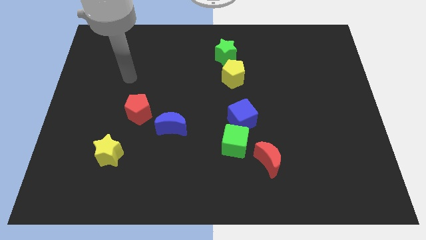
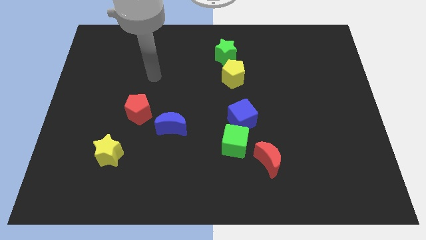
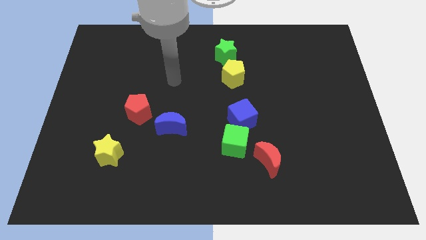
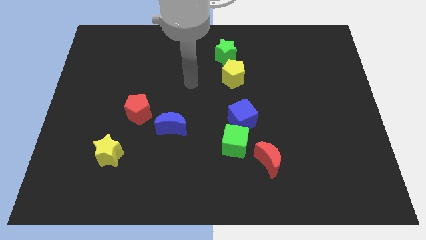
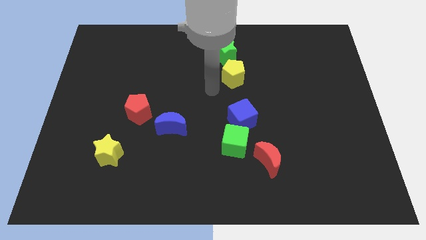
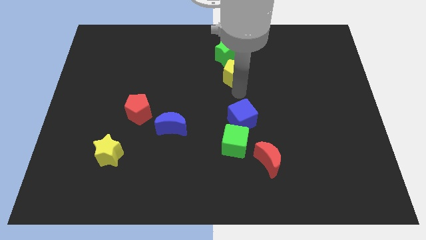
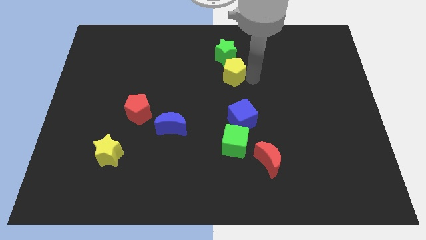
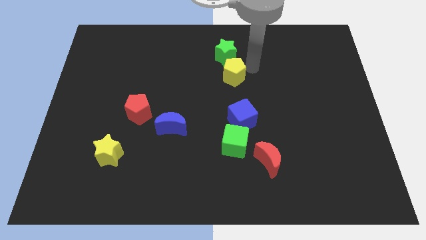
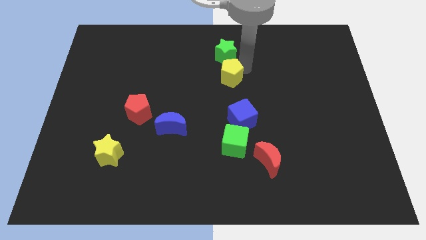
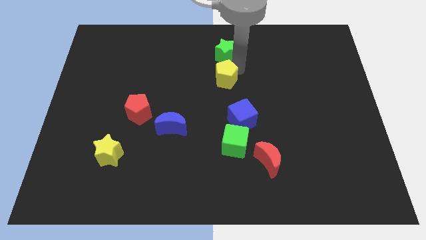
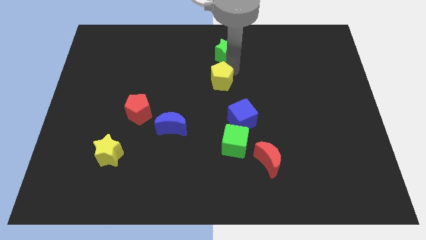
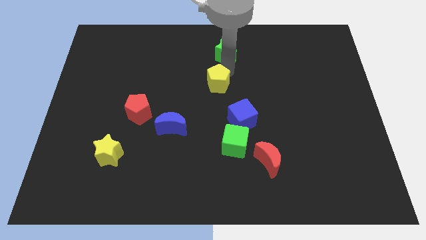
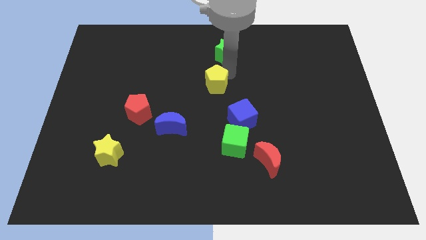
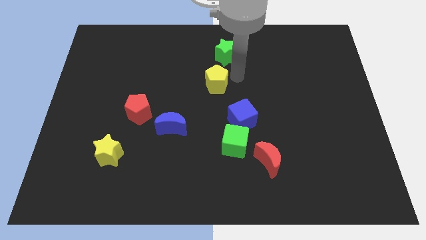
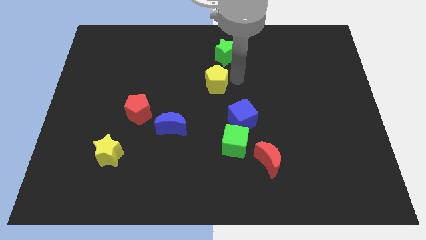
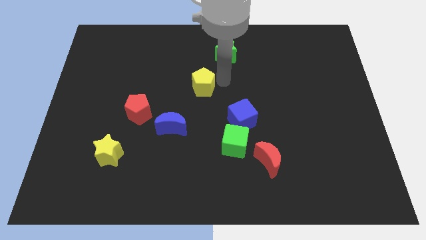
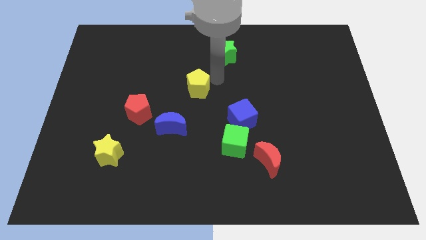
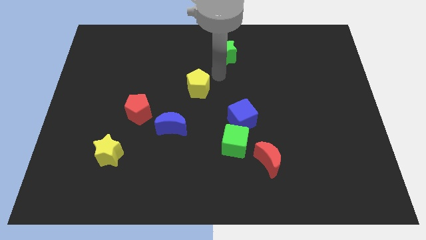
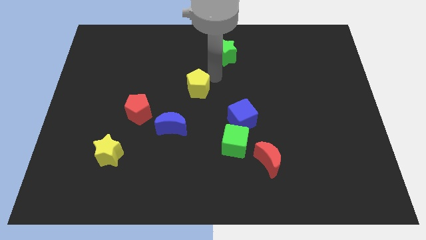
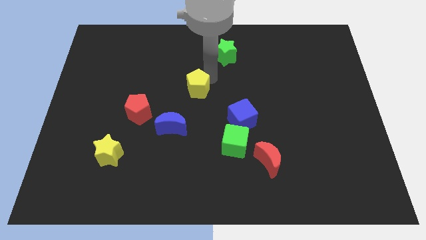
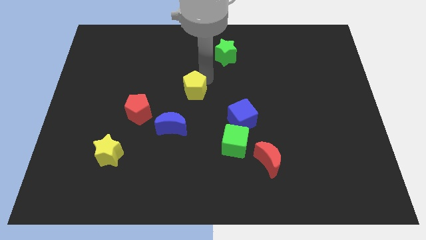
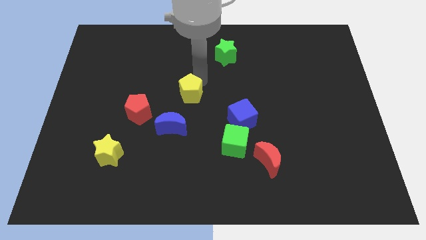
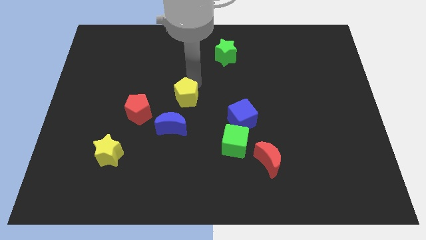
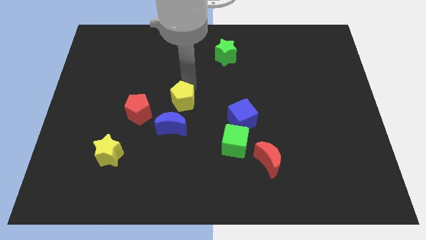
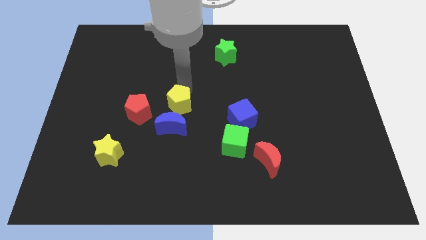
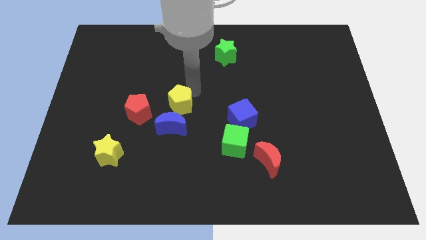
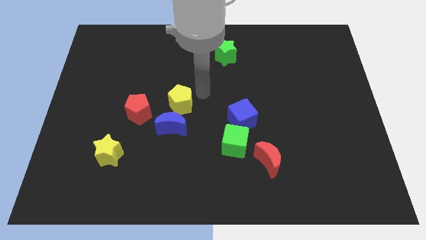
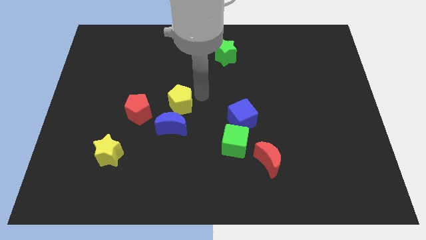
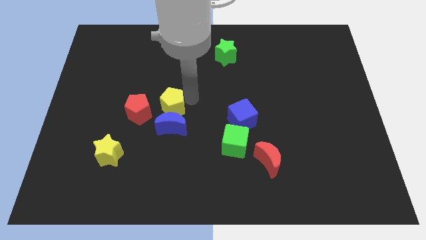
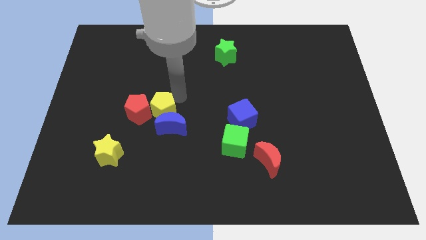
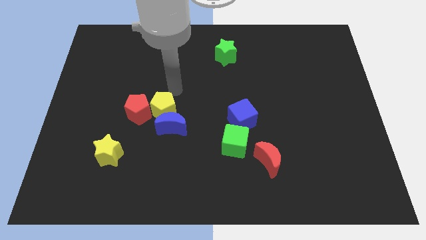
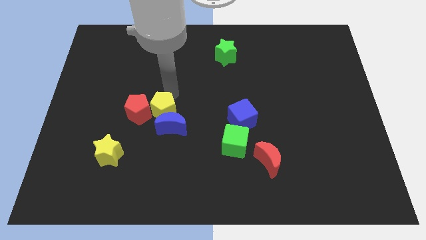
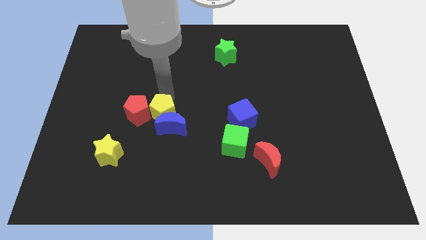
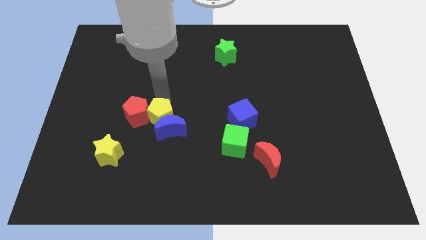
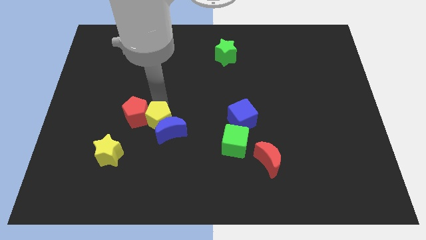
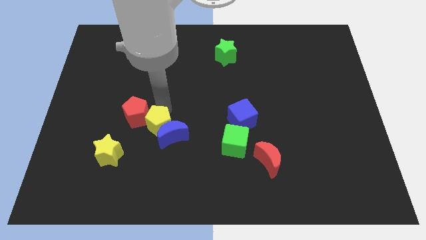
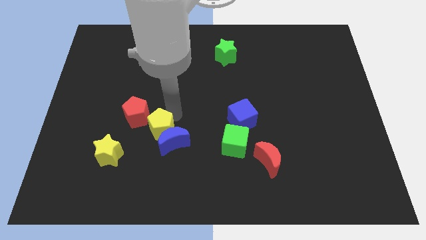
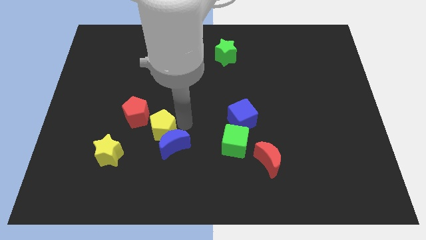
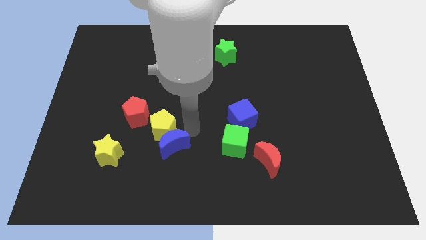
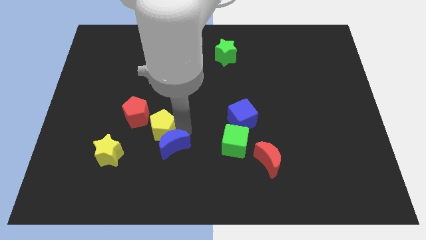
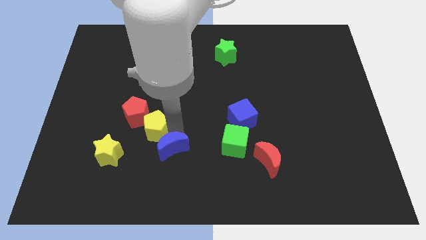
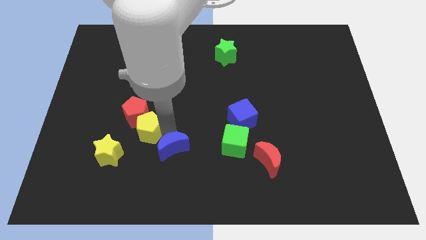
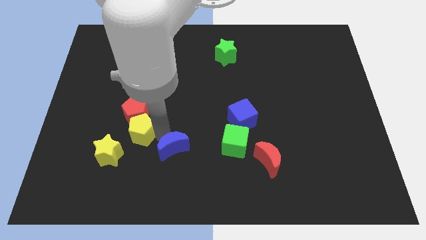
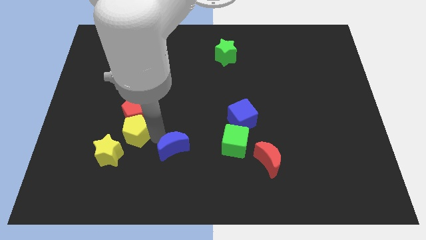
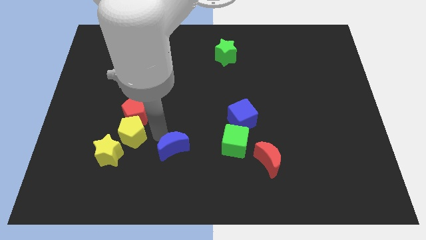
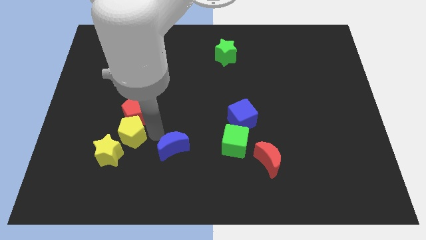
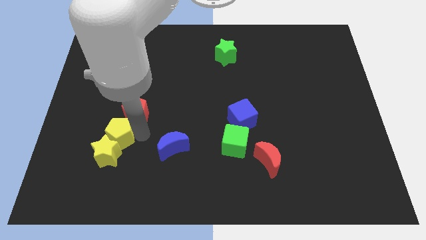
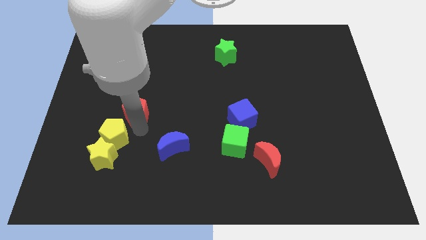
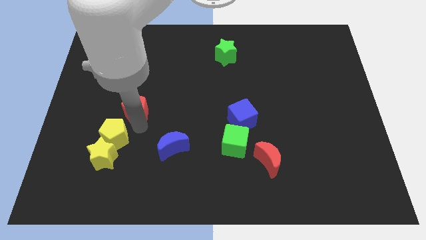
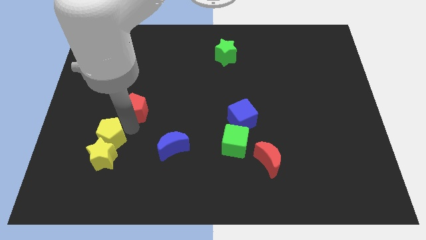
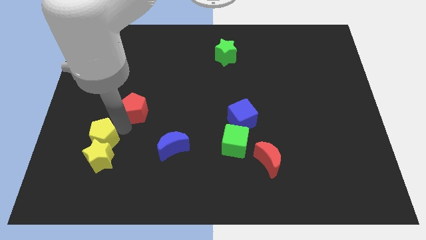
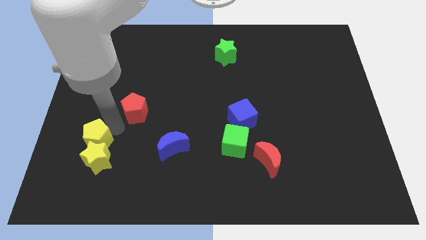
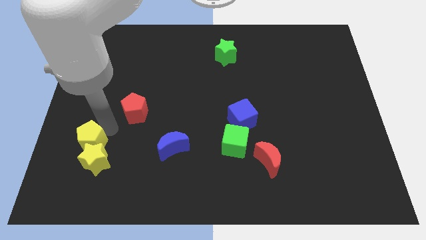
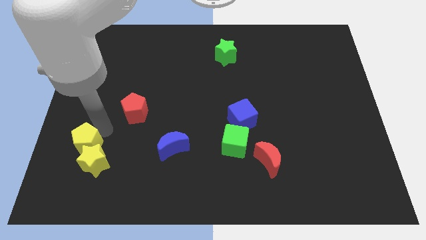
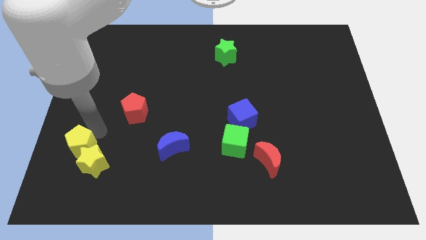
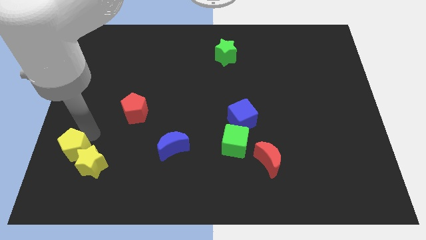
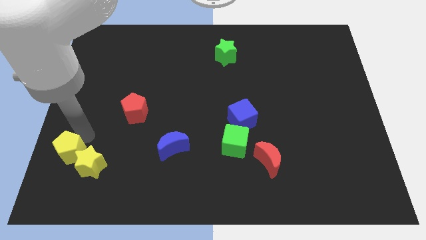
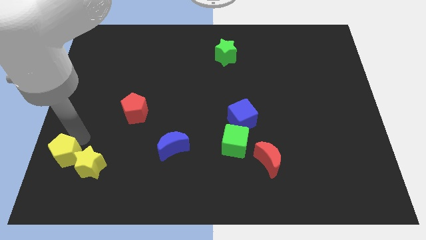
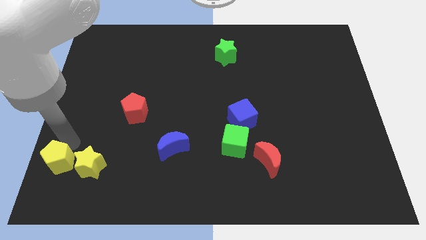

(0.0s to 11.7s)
put the yellow pentagon to the bottom left of the board
